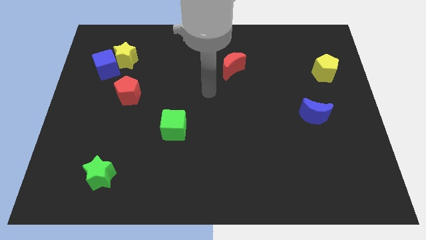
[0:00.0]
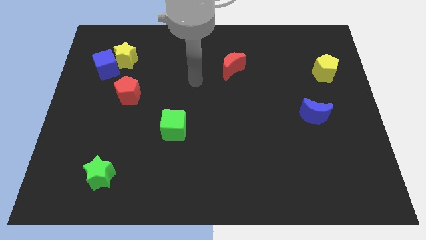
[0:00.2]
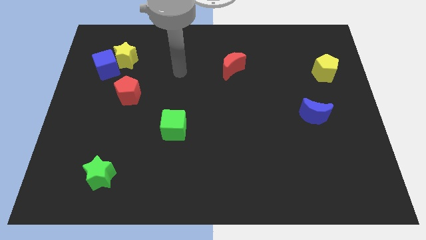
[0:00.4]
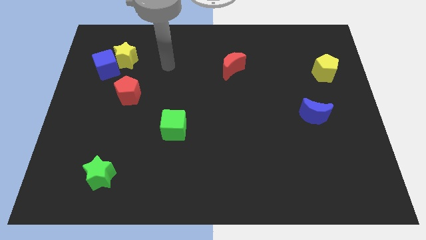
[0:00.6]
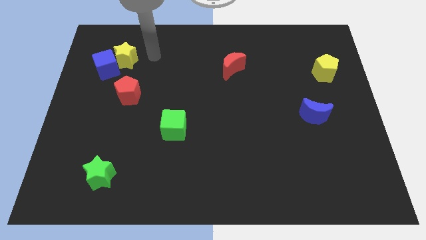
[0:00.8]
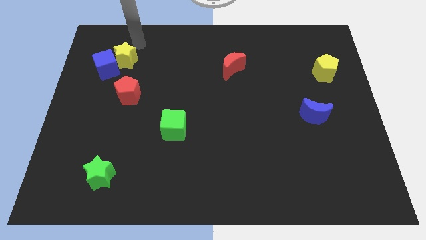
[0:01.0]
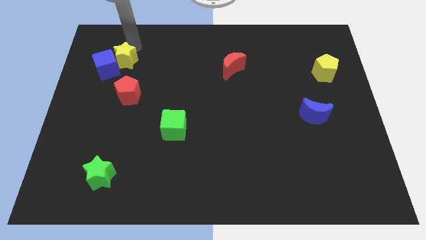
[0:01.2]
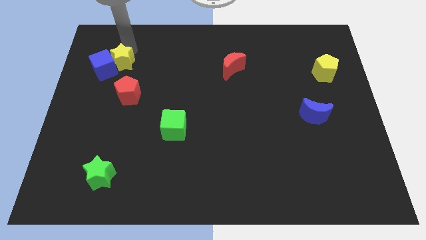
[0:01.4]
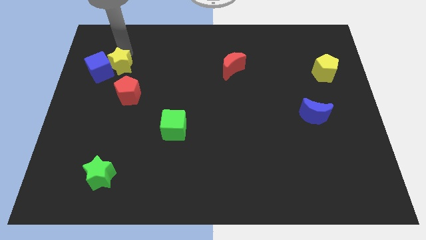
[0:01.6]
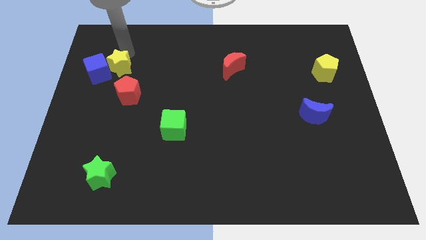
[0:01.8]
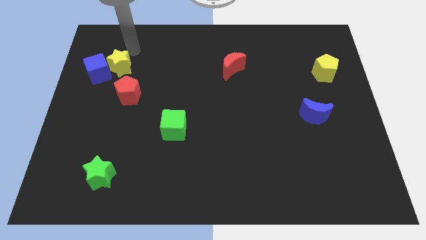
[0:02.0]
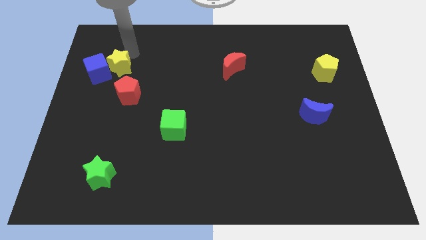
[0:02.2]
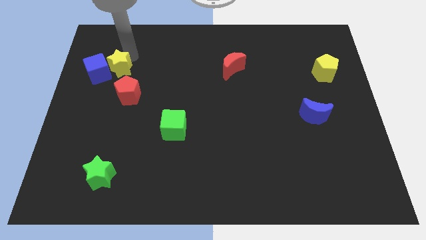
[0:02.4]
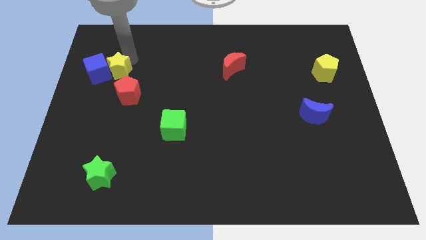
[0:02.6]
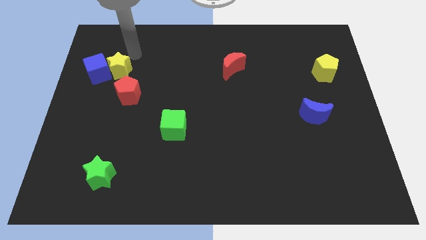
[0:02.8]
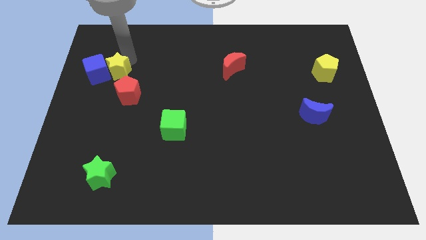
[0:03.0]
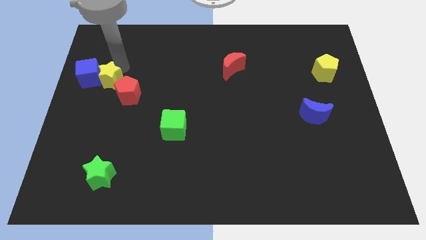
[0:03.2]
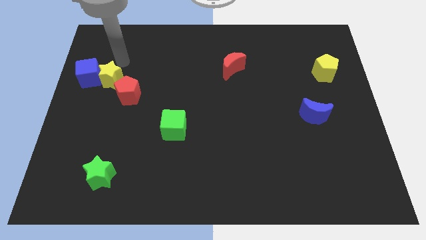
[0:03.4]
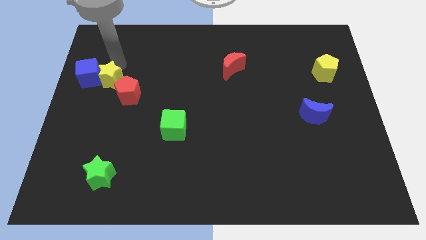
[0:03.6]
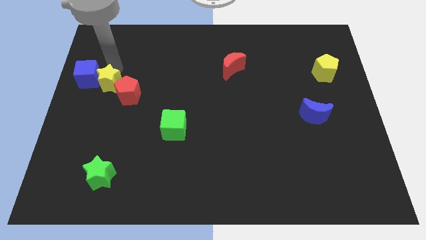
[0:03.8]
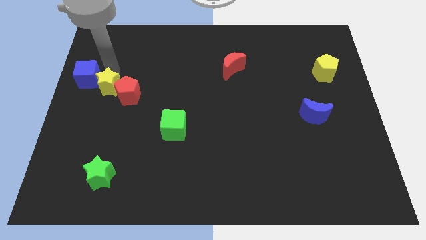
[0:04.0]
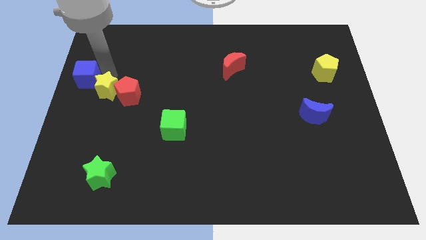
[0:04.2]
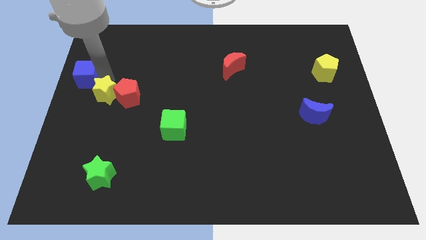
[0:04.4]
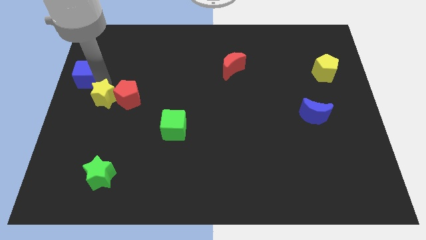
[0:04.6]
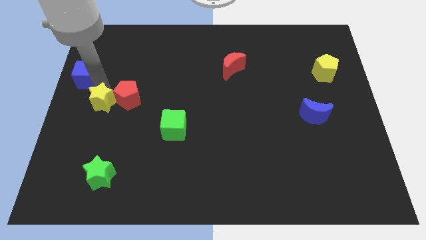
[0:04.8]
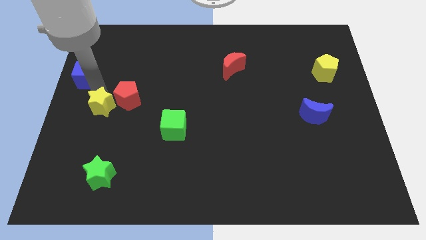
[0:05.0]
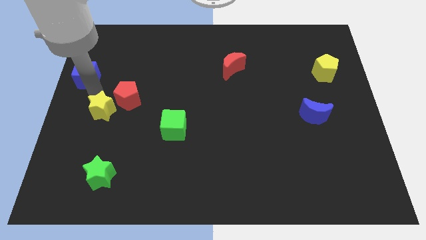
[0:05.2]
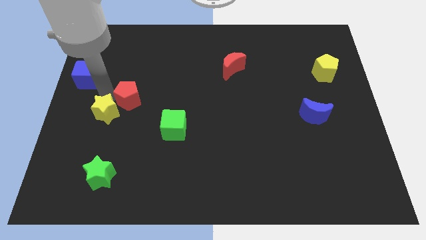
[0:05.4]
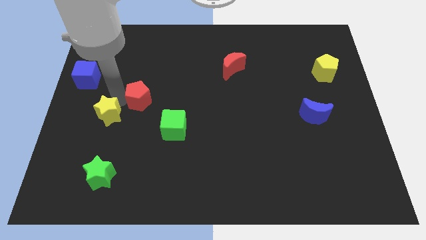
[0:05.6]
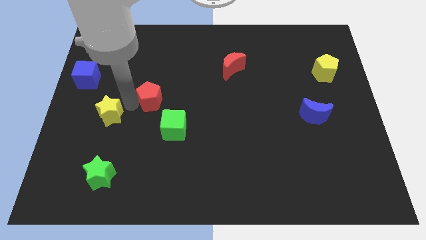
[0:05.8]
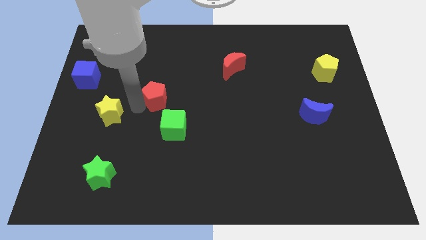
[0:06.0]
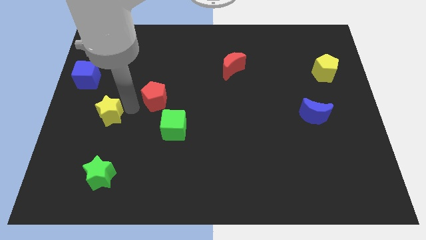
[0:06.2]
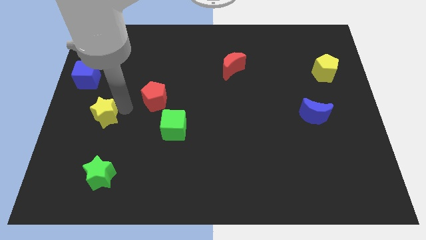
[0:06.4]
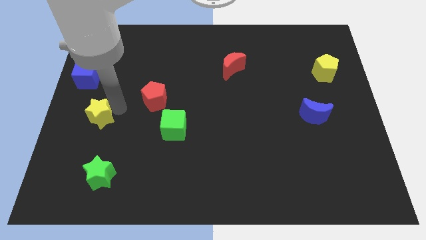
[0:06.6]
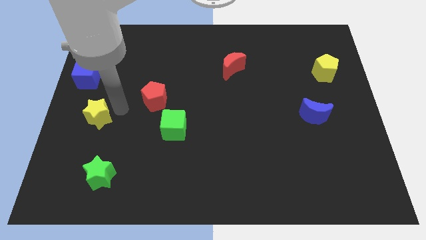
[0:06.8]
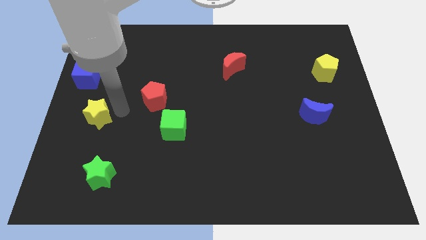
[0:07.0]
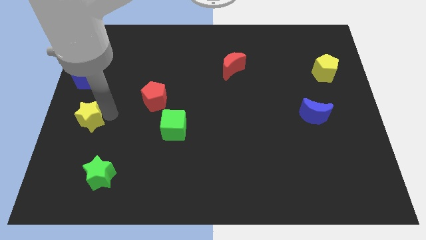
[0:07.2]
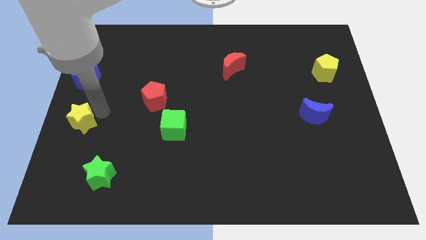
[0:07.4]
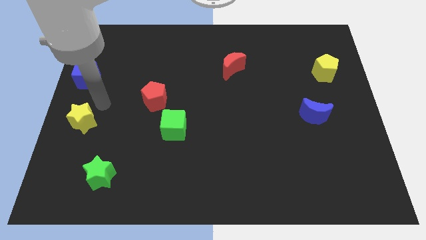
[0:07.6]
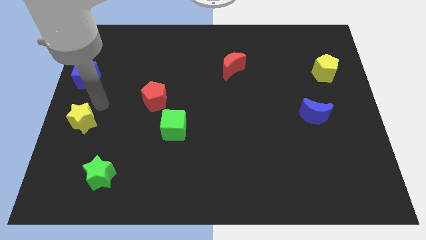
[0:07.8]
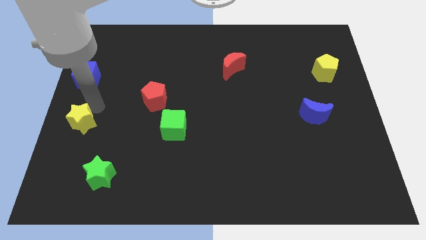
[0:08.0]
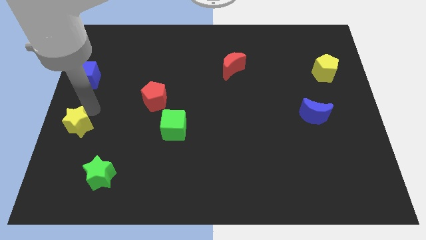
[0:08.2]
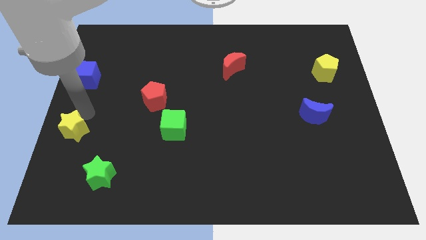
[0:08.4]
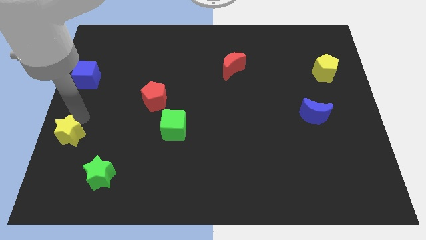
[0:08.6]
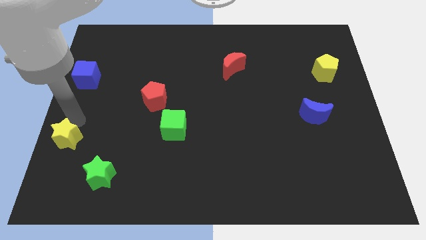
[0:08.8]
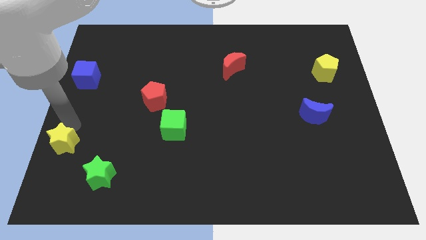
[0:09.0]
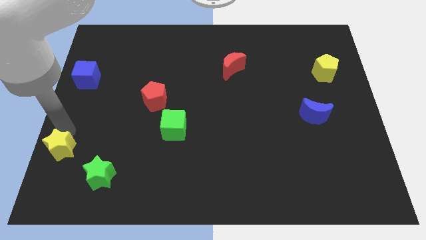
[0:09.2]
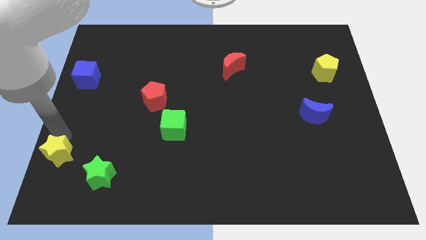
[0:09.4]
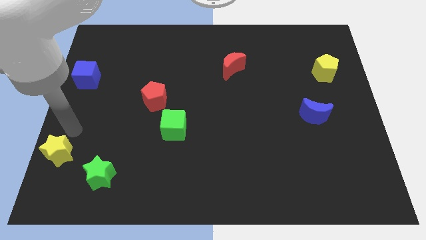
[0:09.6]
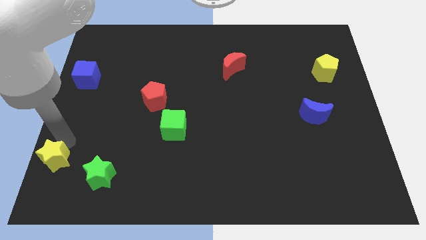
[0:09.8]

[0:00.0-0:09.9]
put the yellow star to the bottom left of the board

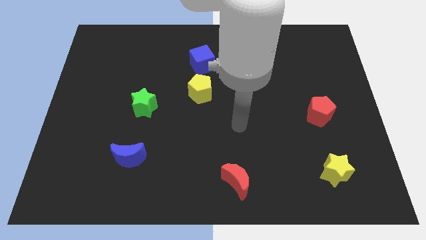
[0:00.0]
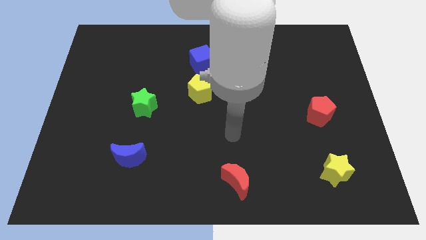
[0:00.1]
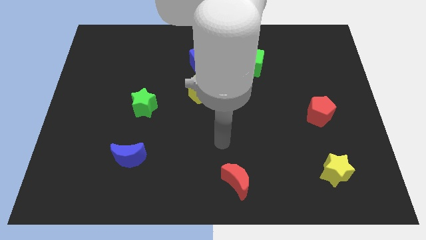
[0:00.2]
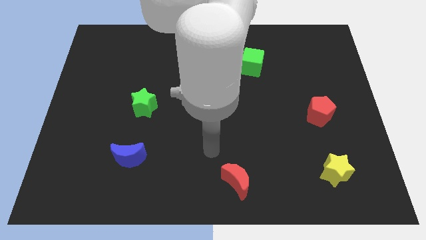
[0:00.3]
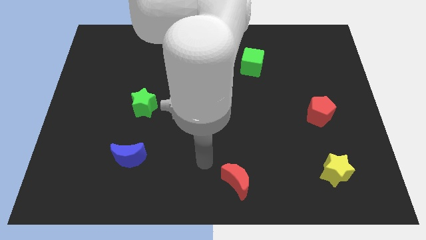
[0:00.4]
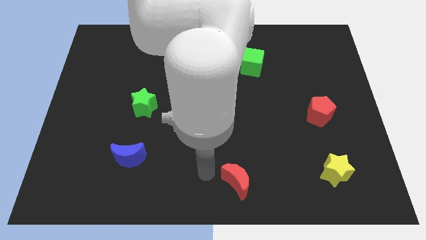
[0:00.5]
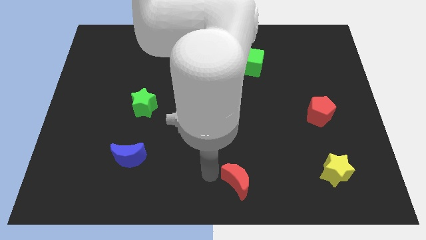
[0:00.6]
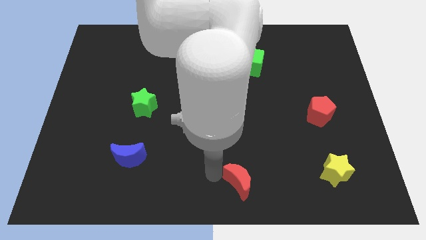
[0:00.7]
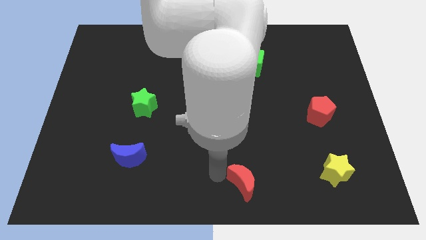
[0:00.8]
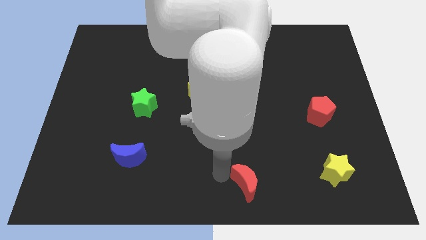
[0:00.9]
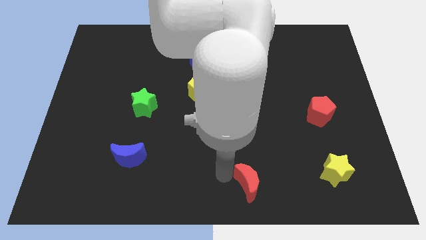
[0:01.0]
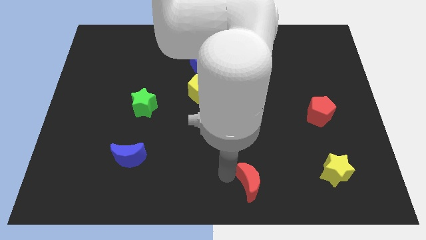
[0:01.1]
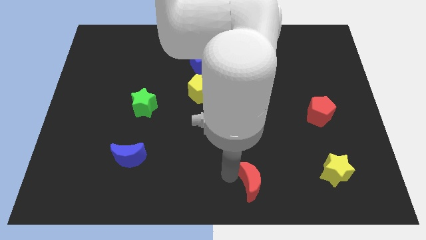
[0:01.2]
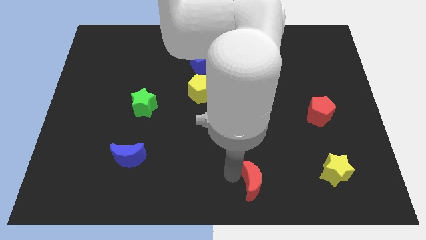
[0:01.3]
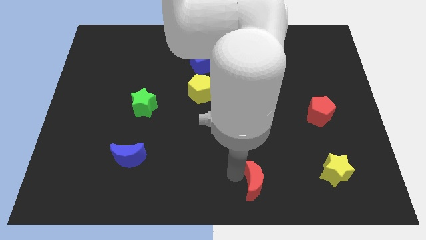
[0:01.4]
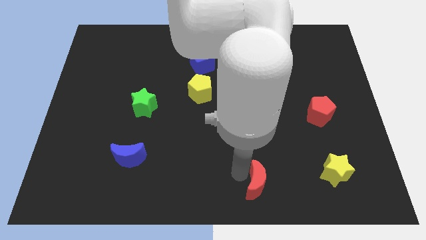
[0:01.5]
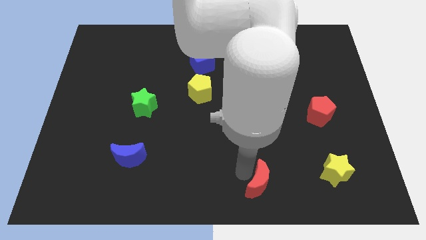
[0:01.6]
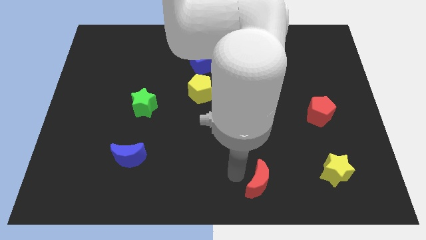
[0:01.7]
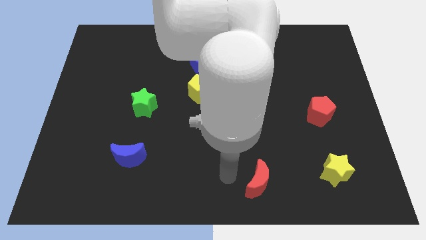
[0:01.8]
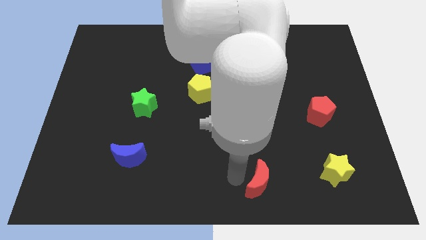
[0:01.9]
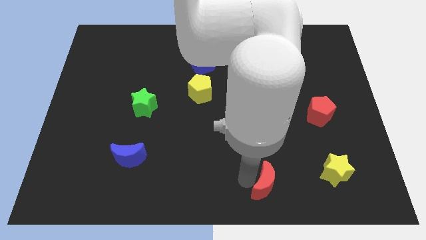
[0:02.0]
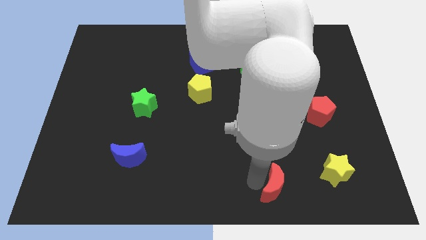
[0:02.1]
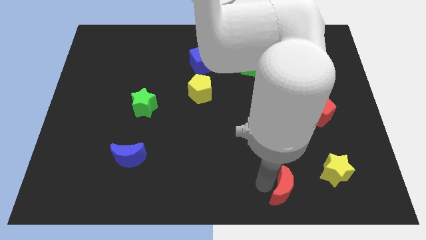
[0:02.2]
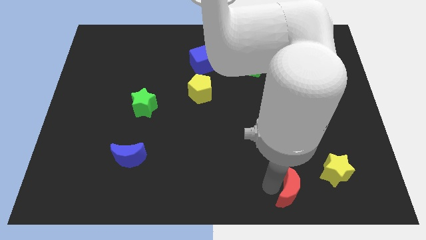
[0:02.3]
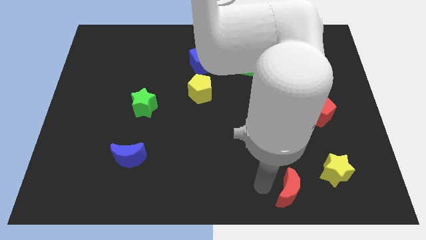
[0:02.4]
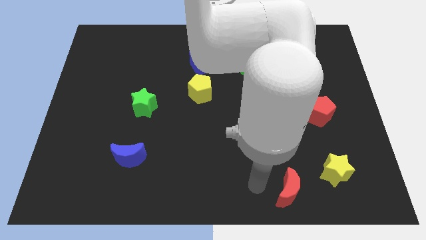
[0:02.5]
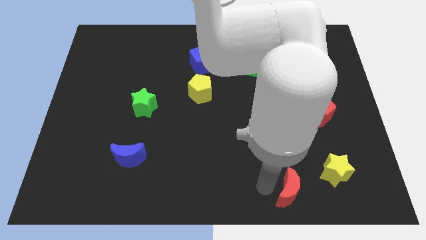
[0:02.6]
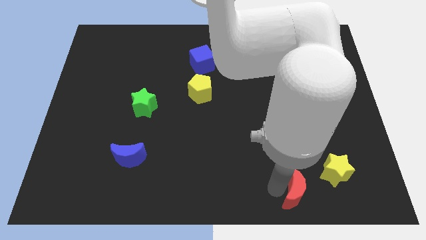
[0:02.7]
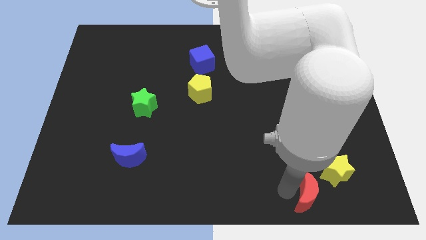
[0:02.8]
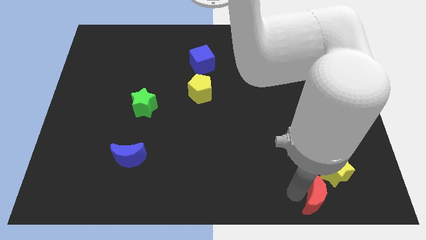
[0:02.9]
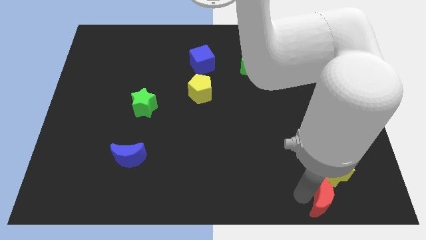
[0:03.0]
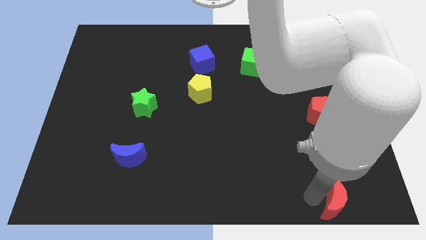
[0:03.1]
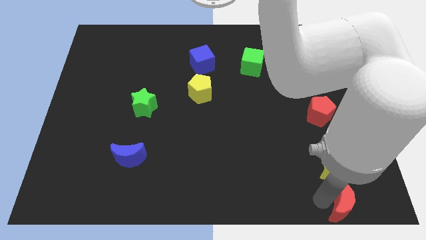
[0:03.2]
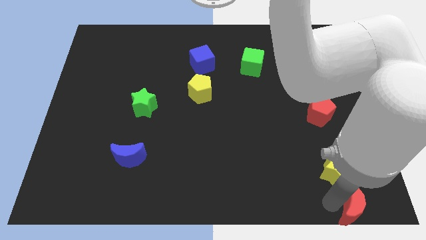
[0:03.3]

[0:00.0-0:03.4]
push the red moon to the lower right corner
